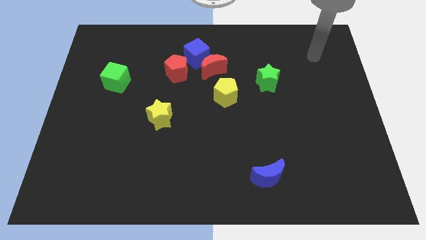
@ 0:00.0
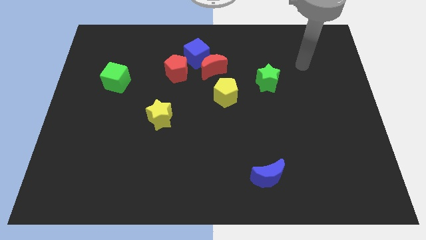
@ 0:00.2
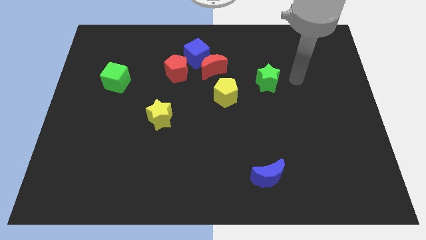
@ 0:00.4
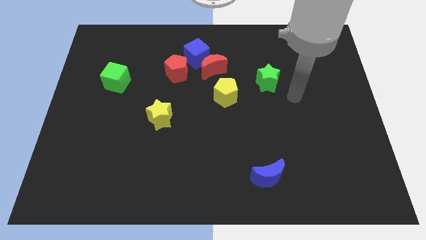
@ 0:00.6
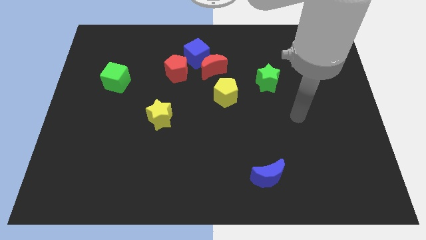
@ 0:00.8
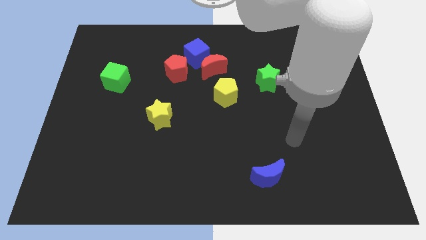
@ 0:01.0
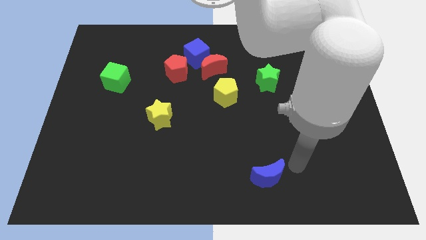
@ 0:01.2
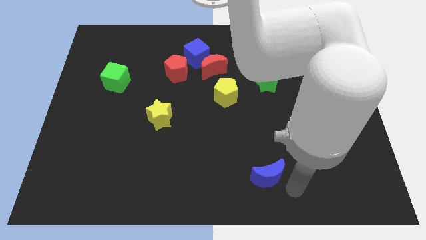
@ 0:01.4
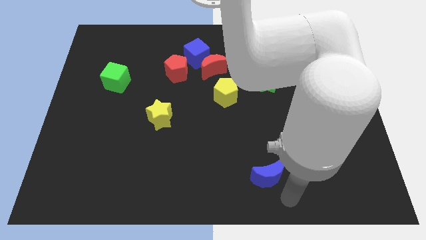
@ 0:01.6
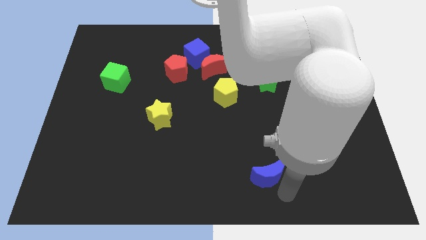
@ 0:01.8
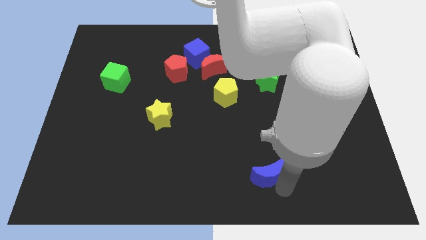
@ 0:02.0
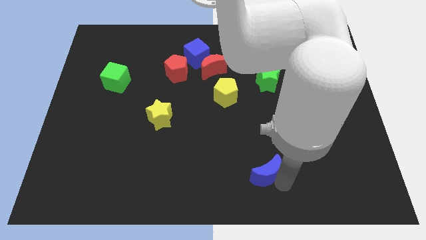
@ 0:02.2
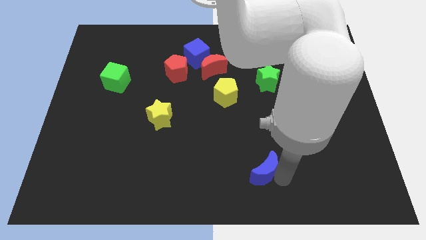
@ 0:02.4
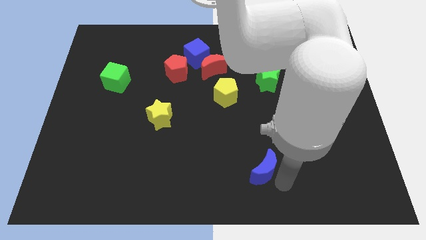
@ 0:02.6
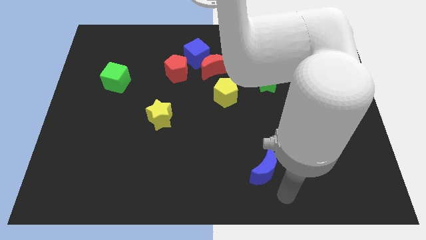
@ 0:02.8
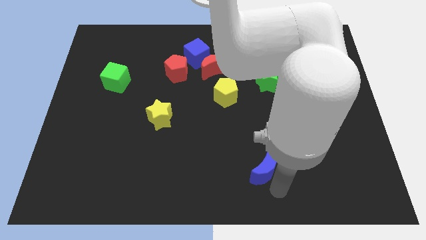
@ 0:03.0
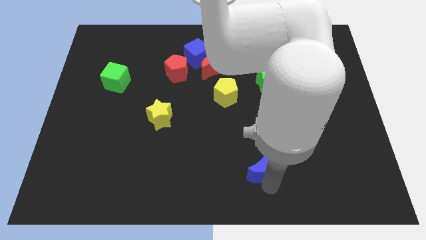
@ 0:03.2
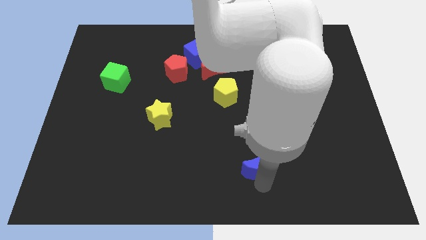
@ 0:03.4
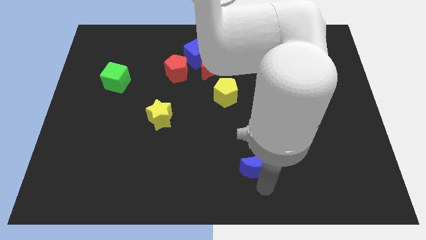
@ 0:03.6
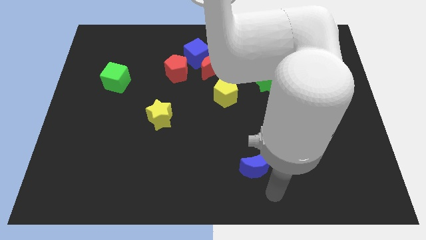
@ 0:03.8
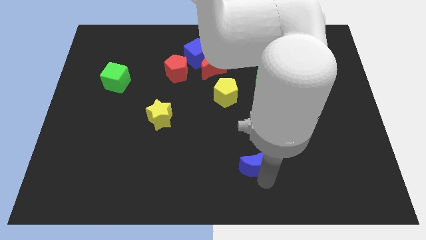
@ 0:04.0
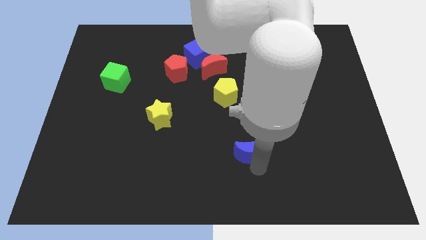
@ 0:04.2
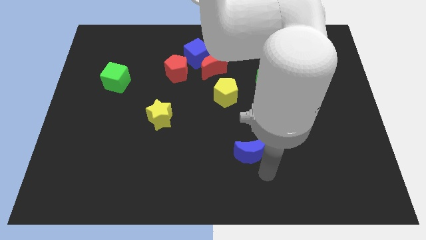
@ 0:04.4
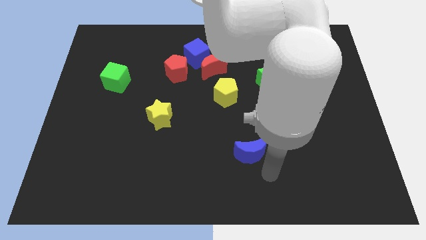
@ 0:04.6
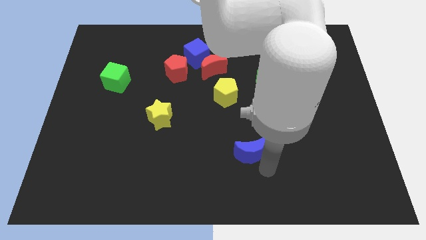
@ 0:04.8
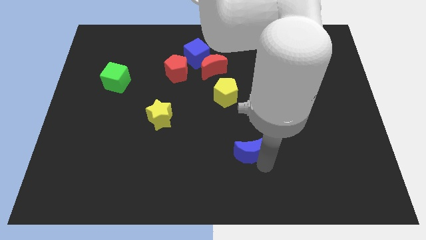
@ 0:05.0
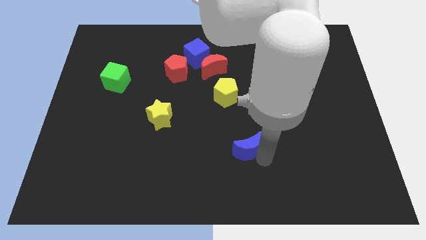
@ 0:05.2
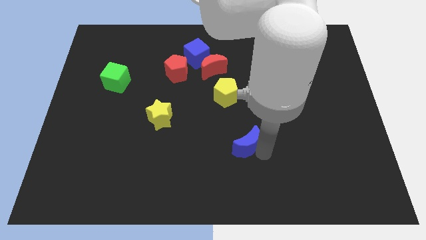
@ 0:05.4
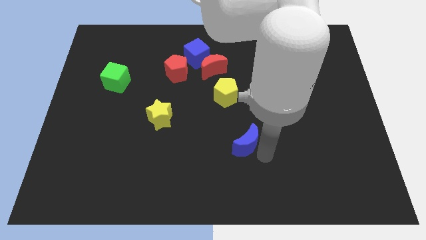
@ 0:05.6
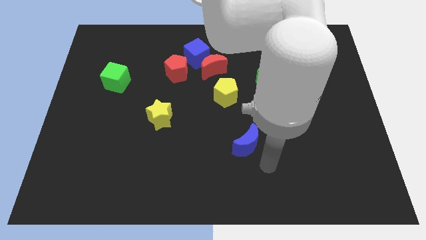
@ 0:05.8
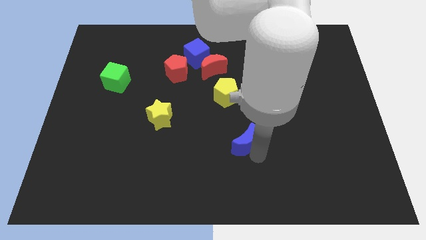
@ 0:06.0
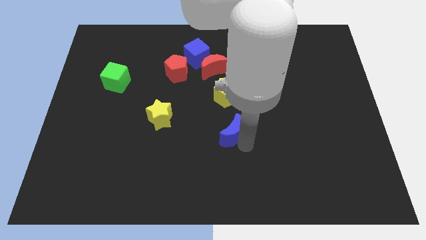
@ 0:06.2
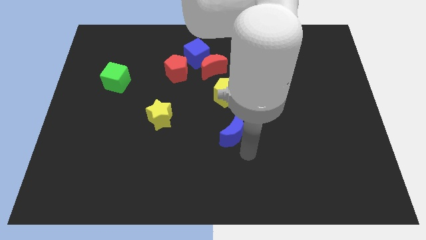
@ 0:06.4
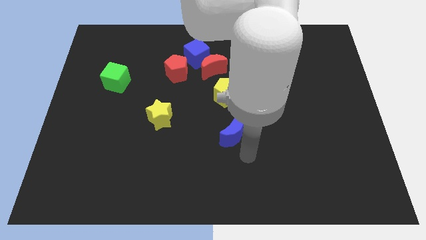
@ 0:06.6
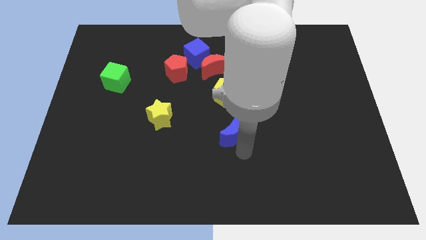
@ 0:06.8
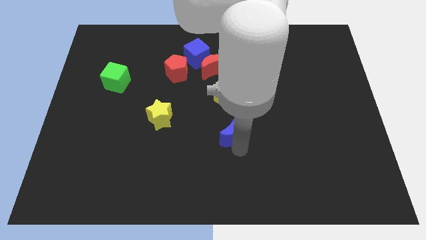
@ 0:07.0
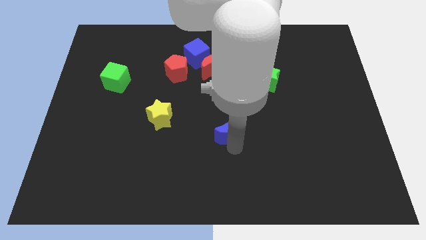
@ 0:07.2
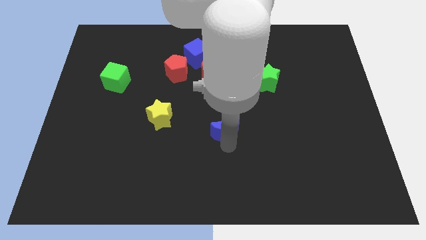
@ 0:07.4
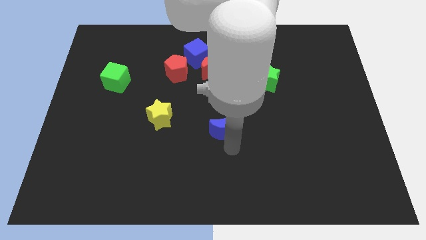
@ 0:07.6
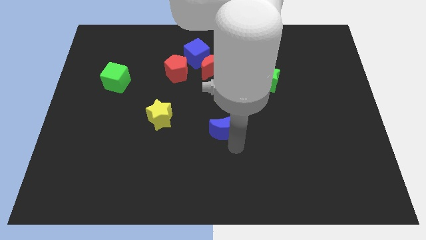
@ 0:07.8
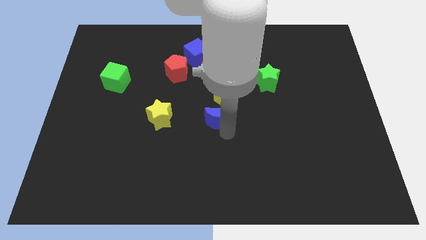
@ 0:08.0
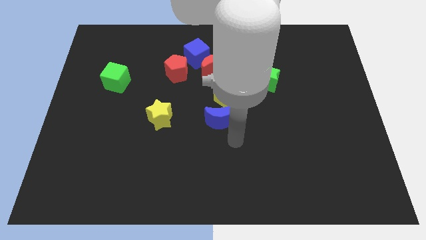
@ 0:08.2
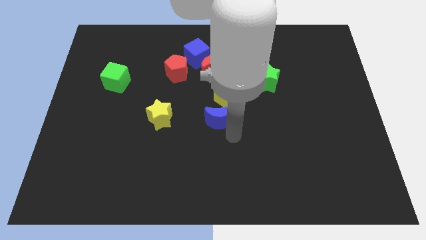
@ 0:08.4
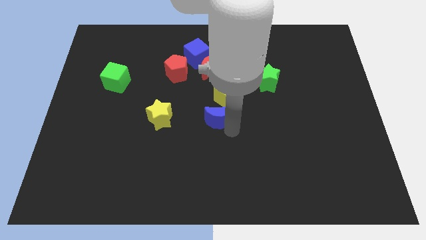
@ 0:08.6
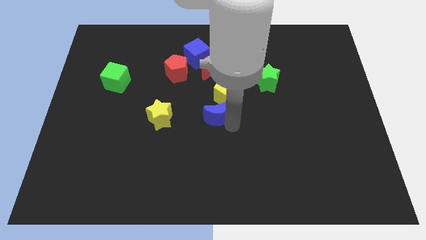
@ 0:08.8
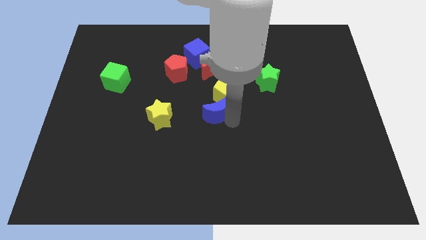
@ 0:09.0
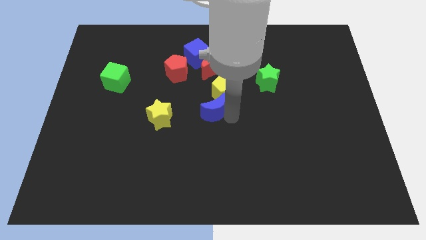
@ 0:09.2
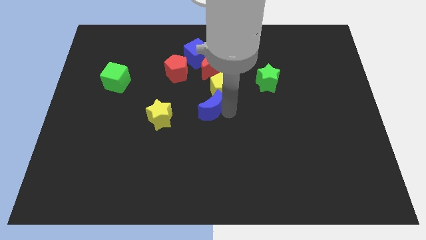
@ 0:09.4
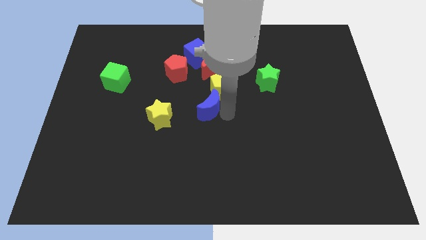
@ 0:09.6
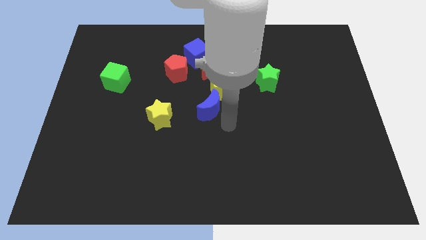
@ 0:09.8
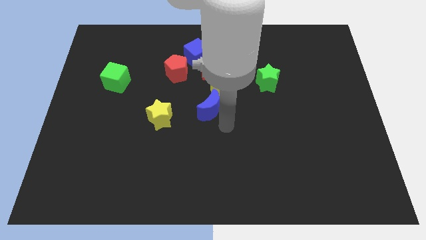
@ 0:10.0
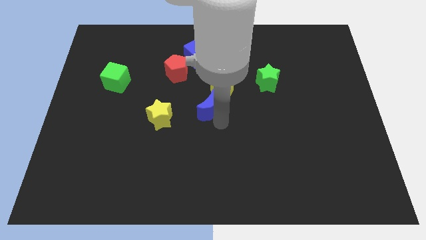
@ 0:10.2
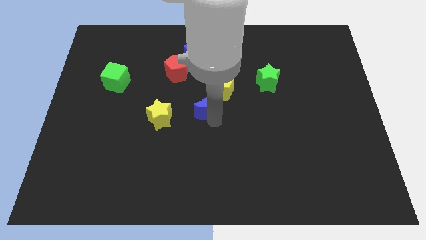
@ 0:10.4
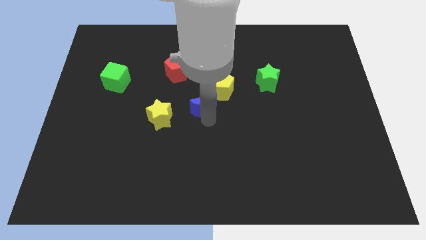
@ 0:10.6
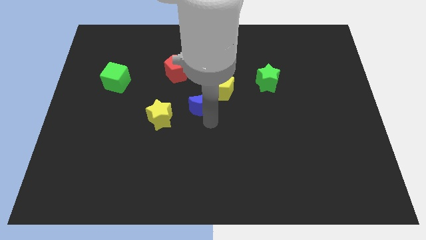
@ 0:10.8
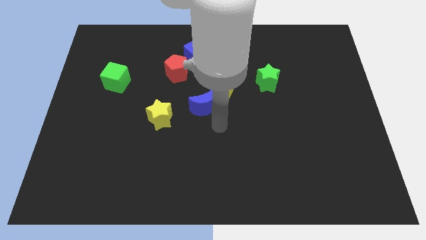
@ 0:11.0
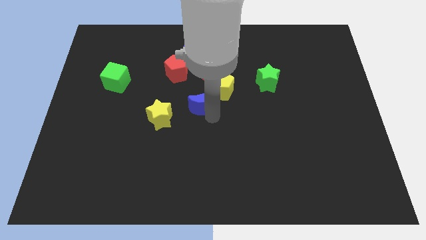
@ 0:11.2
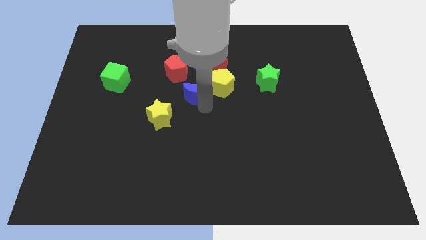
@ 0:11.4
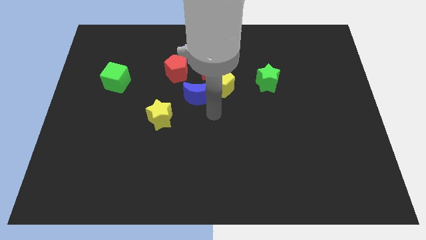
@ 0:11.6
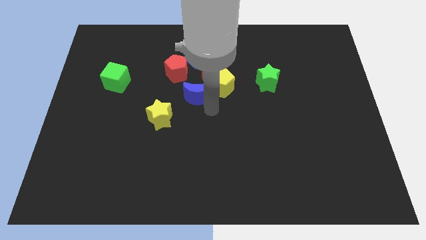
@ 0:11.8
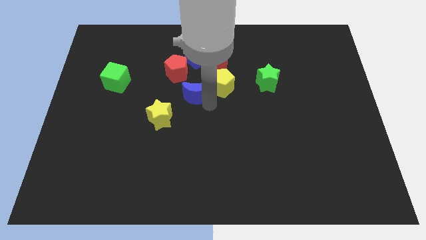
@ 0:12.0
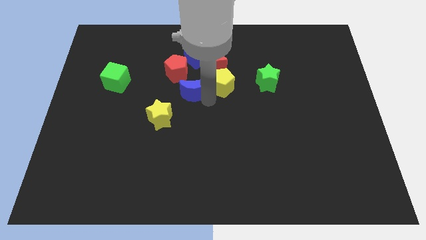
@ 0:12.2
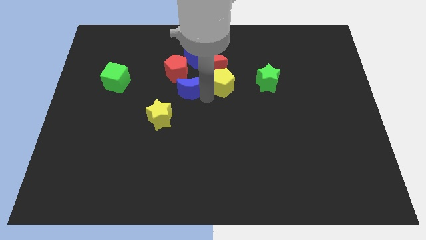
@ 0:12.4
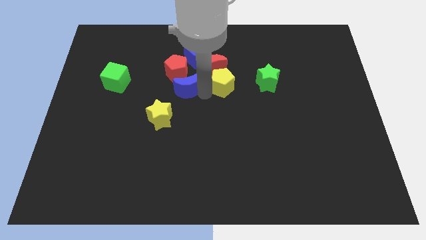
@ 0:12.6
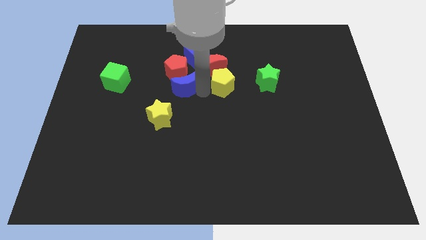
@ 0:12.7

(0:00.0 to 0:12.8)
move the blue moon towards the red pentagon

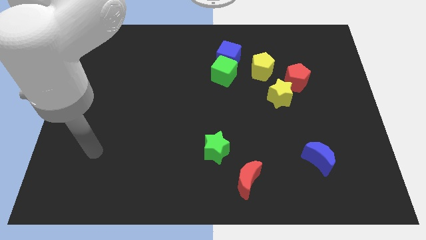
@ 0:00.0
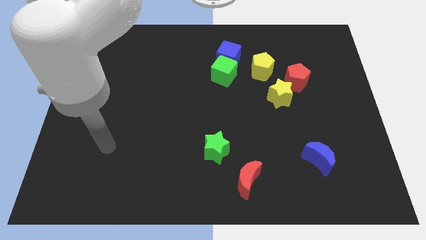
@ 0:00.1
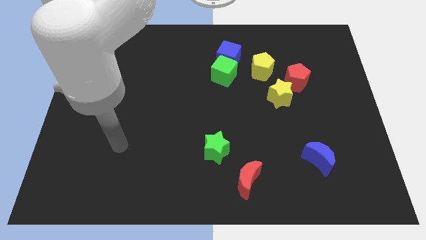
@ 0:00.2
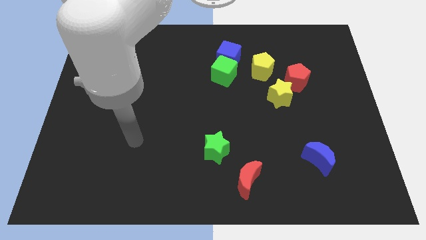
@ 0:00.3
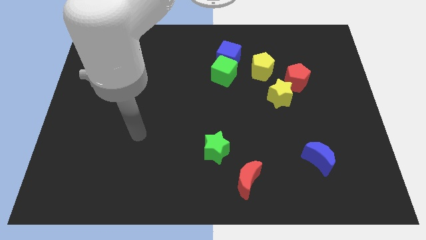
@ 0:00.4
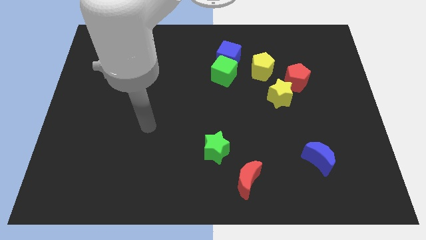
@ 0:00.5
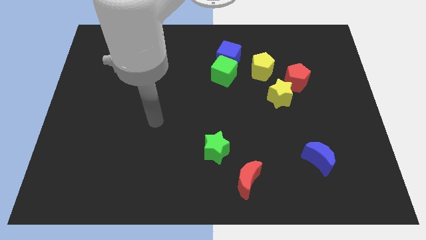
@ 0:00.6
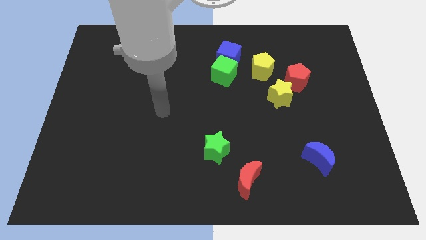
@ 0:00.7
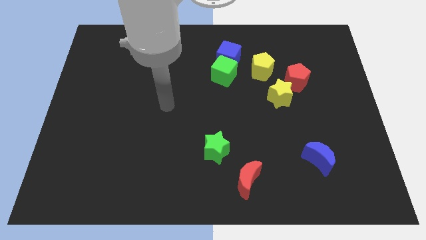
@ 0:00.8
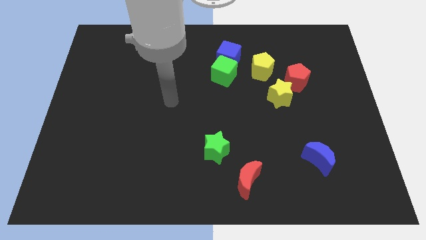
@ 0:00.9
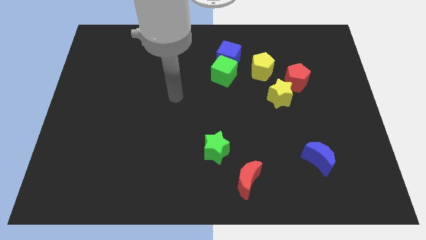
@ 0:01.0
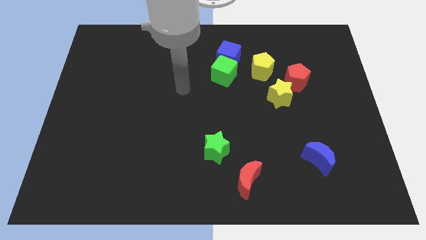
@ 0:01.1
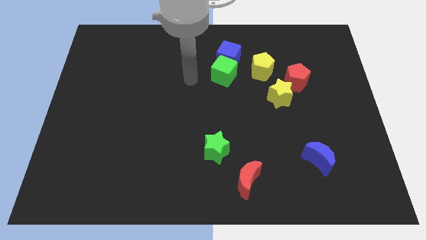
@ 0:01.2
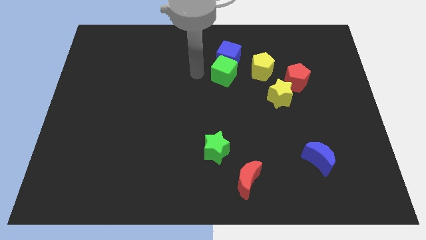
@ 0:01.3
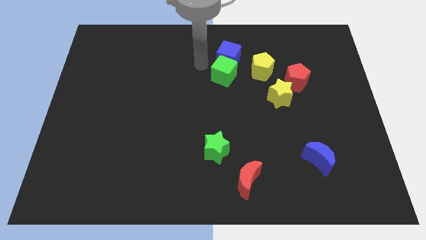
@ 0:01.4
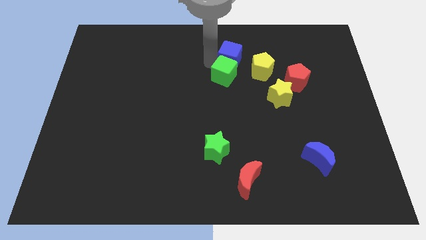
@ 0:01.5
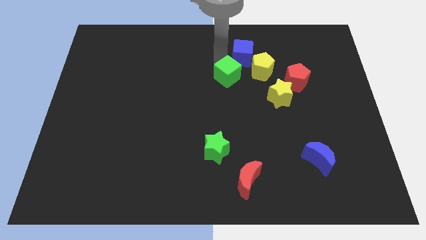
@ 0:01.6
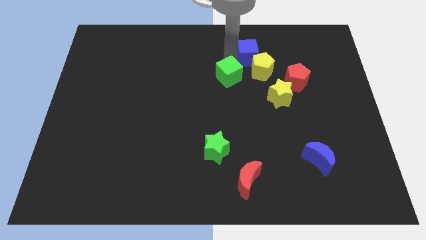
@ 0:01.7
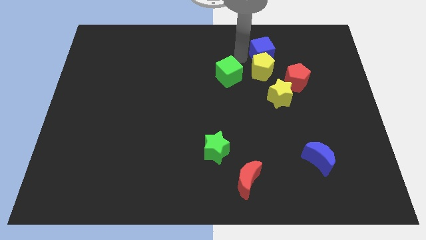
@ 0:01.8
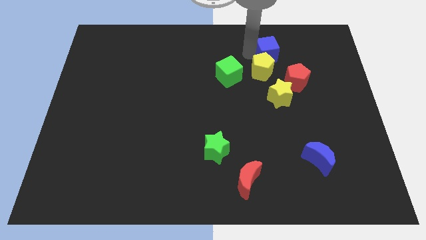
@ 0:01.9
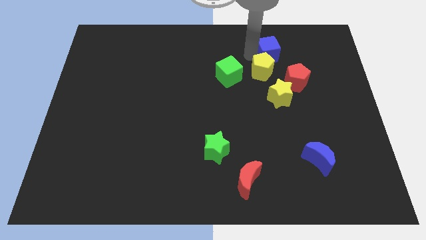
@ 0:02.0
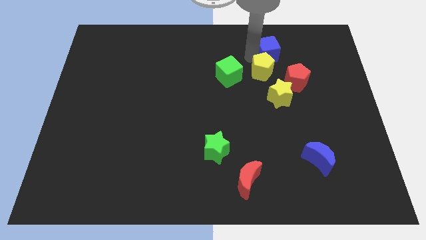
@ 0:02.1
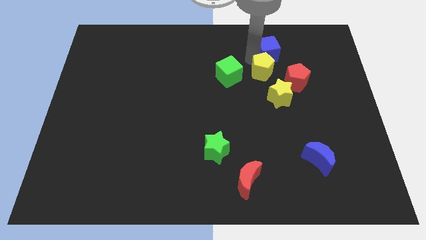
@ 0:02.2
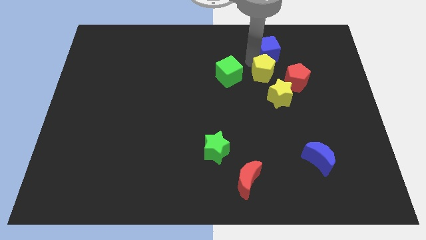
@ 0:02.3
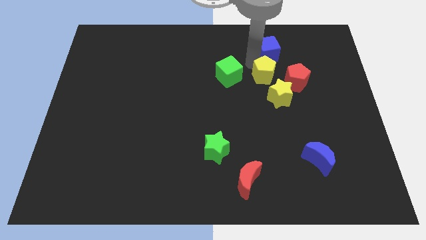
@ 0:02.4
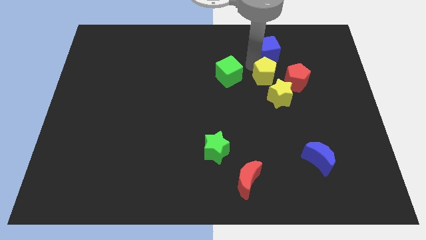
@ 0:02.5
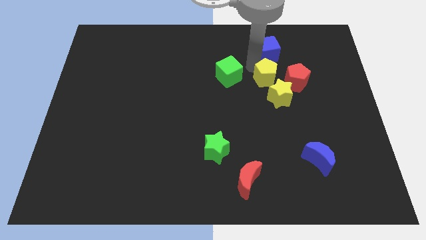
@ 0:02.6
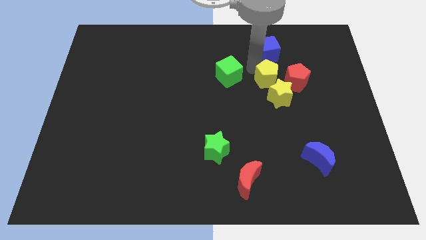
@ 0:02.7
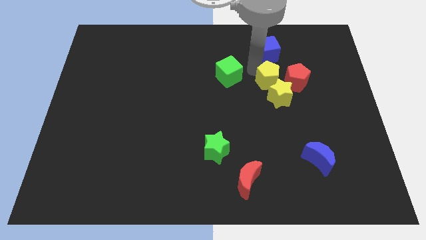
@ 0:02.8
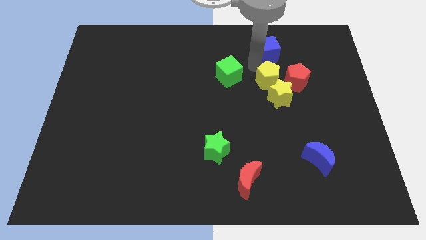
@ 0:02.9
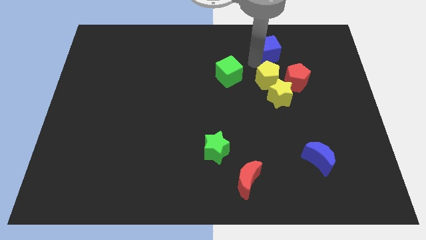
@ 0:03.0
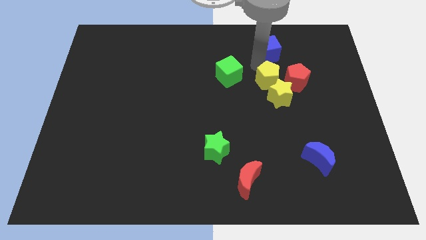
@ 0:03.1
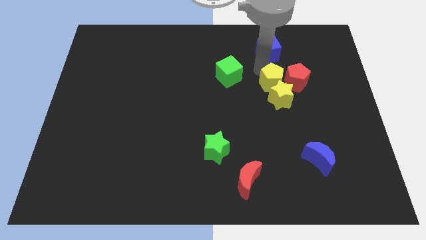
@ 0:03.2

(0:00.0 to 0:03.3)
push the yellow pentagon towards the yellow star
